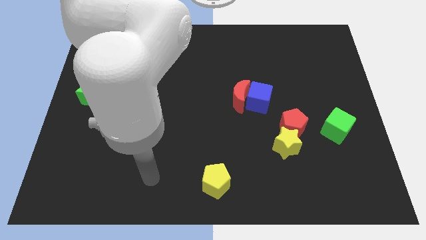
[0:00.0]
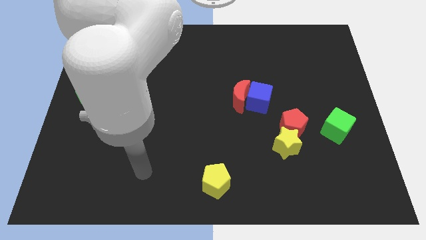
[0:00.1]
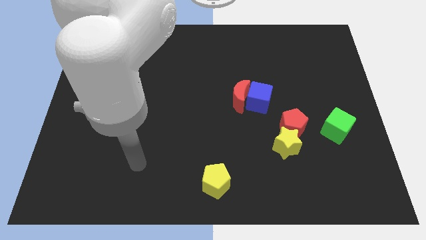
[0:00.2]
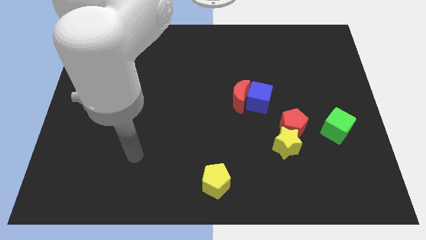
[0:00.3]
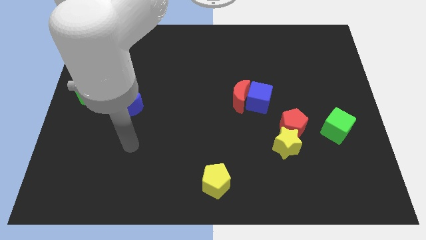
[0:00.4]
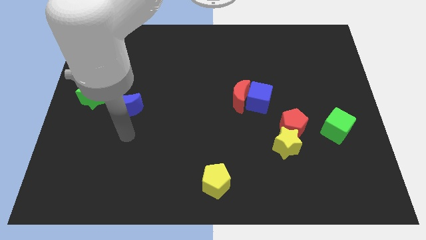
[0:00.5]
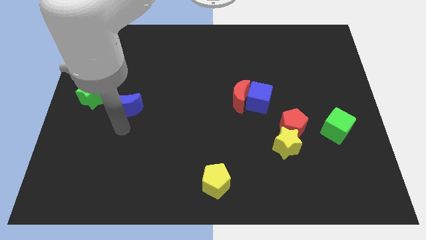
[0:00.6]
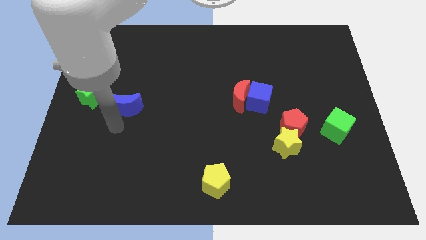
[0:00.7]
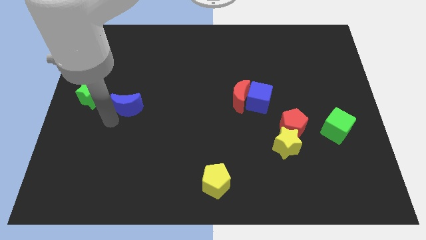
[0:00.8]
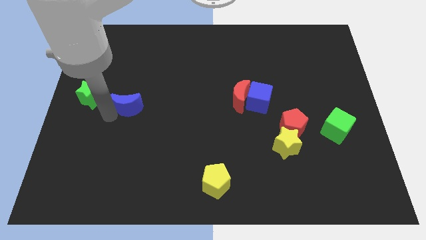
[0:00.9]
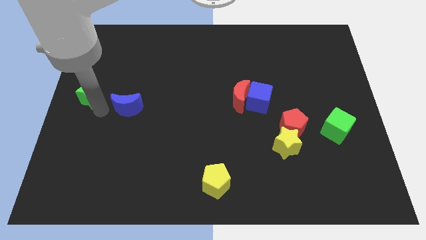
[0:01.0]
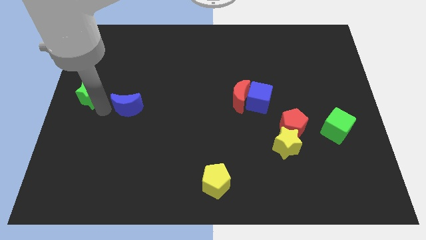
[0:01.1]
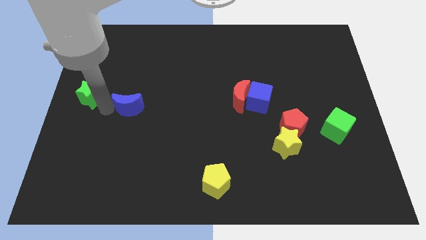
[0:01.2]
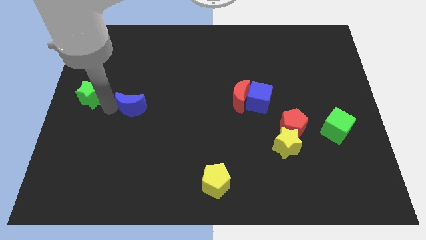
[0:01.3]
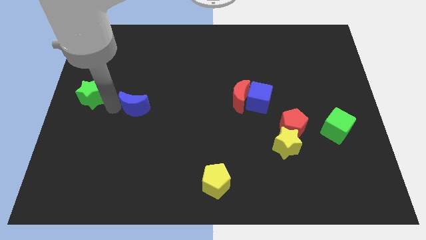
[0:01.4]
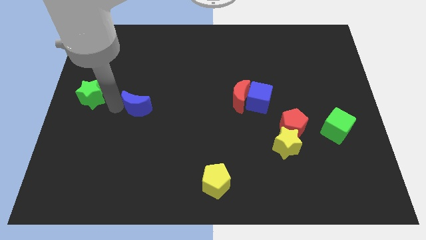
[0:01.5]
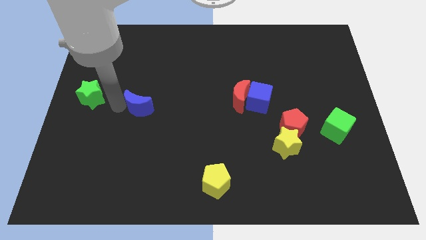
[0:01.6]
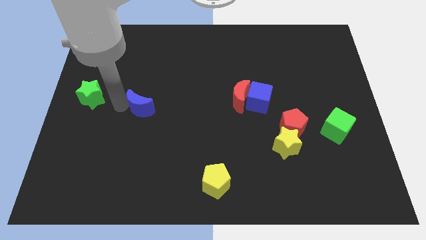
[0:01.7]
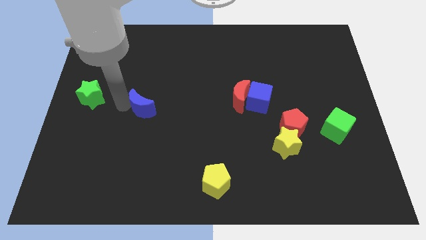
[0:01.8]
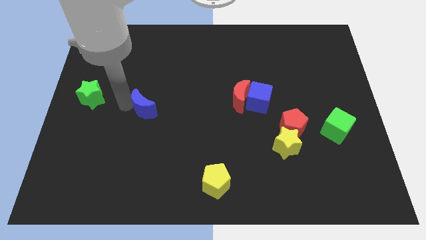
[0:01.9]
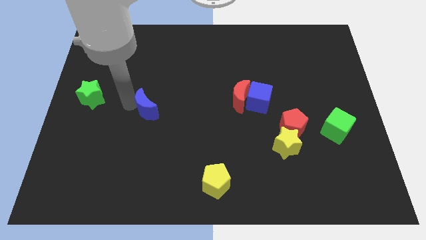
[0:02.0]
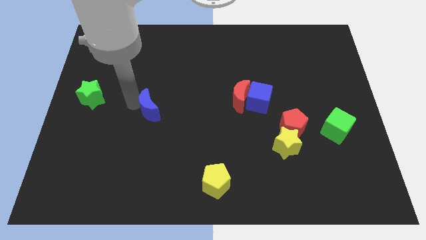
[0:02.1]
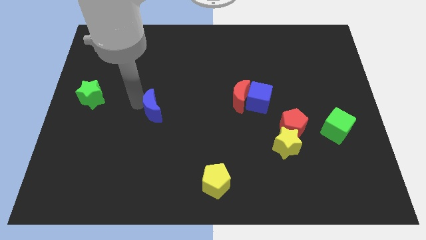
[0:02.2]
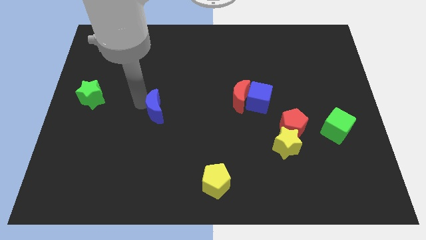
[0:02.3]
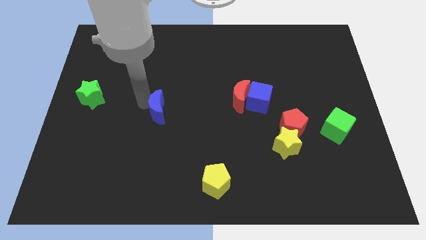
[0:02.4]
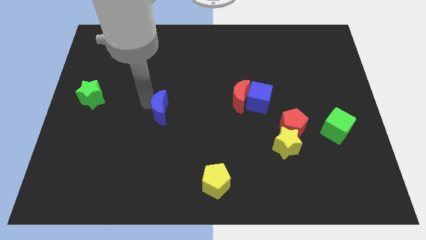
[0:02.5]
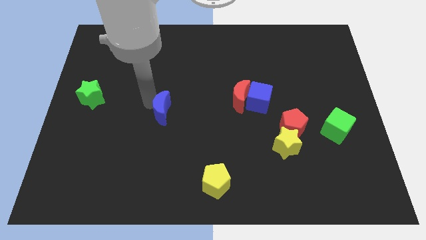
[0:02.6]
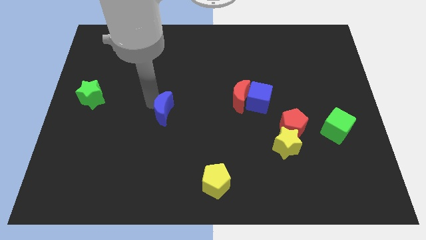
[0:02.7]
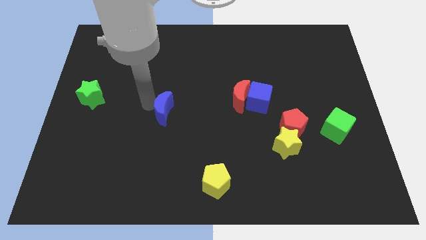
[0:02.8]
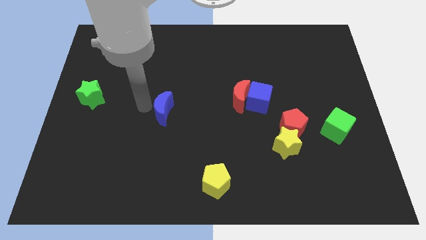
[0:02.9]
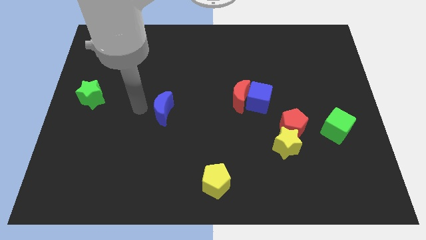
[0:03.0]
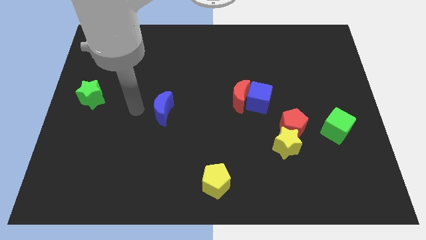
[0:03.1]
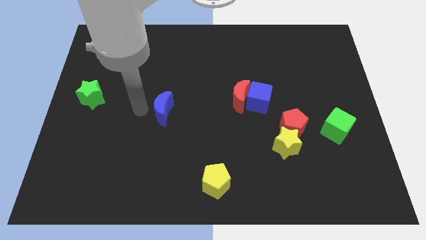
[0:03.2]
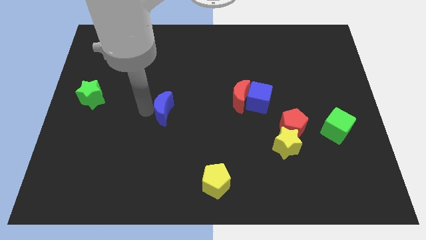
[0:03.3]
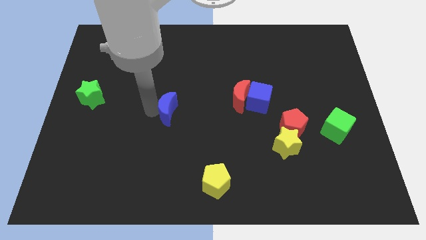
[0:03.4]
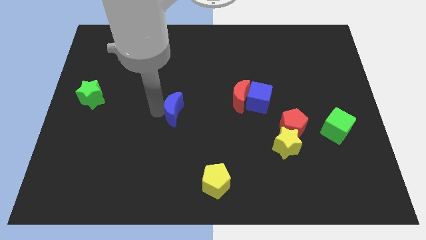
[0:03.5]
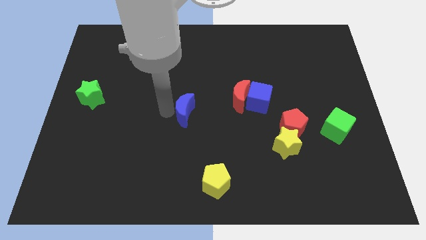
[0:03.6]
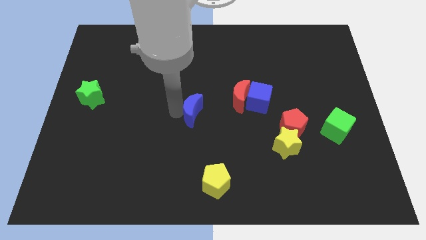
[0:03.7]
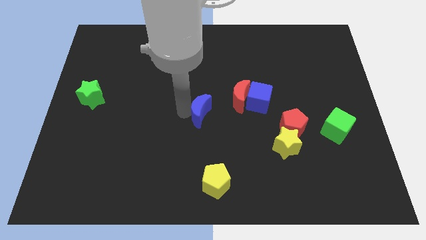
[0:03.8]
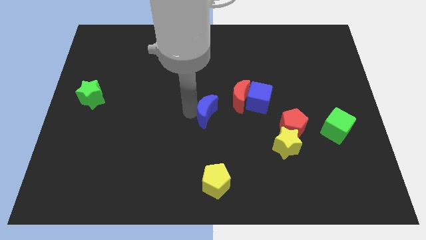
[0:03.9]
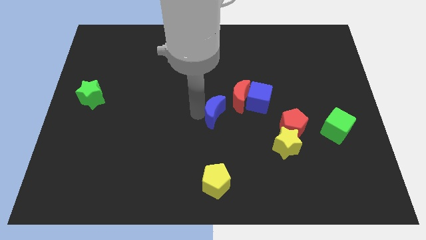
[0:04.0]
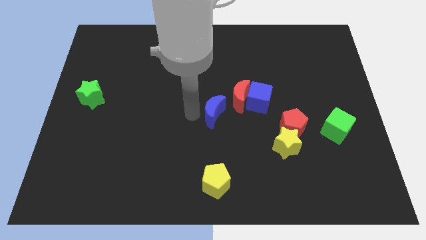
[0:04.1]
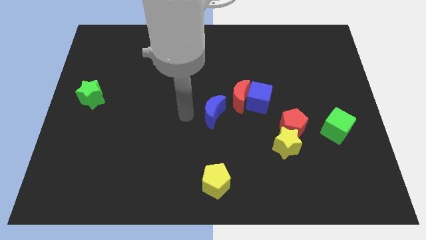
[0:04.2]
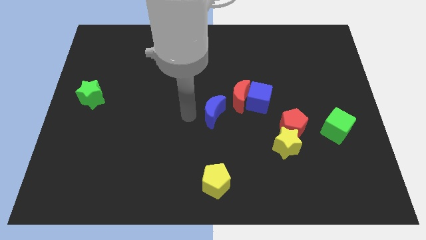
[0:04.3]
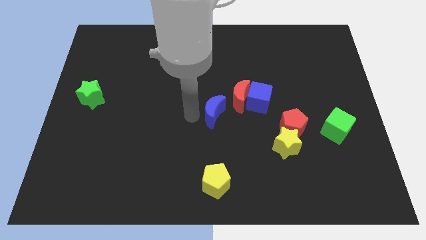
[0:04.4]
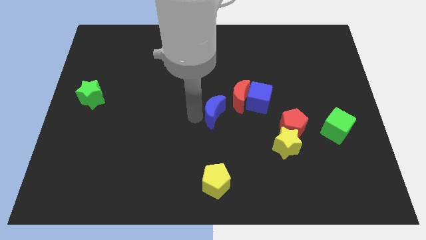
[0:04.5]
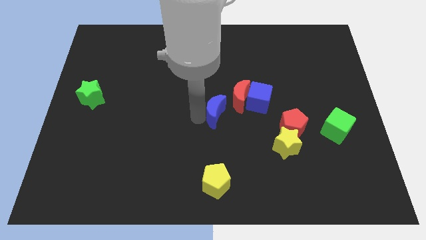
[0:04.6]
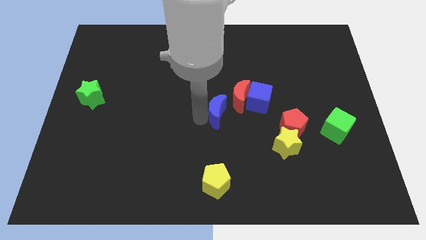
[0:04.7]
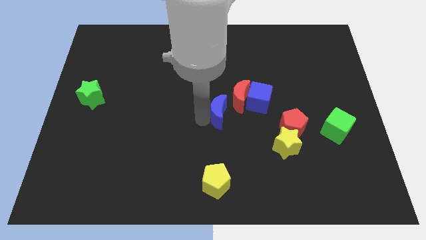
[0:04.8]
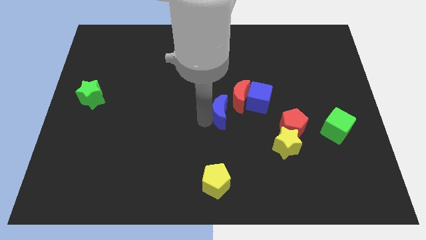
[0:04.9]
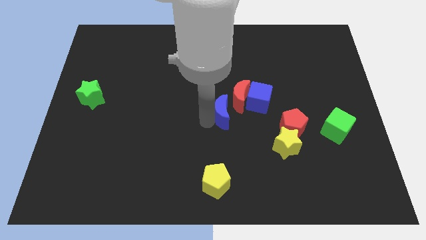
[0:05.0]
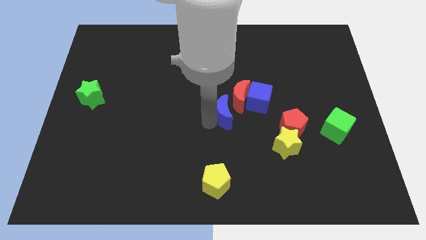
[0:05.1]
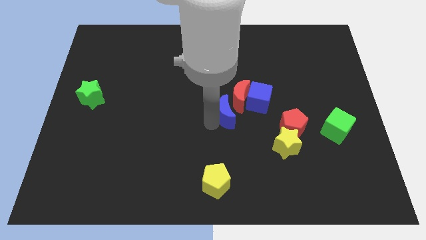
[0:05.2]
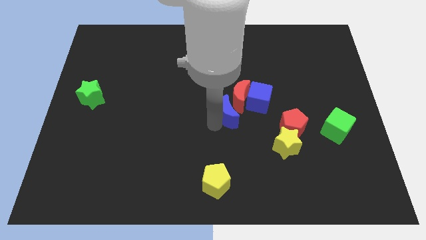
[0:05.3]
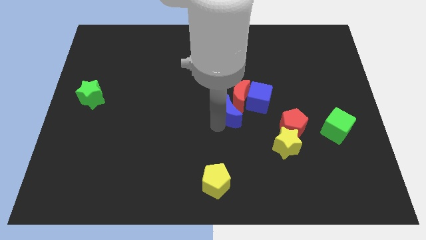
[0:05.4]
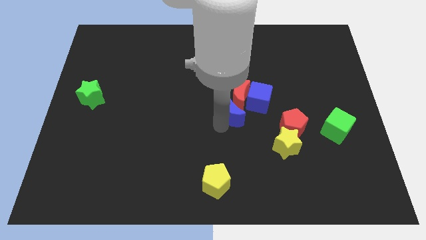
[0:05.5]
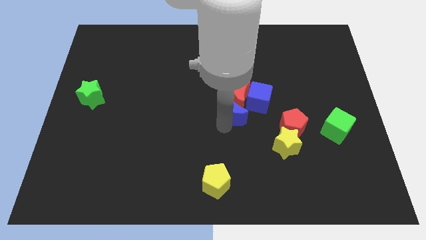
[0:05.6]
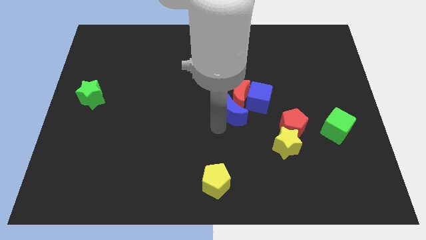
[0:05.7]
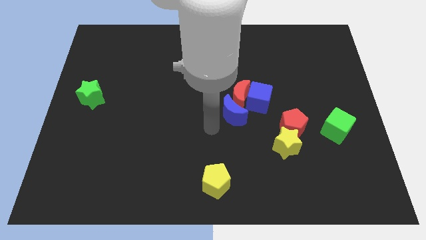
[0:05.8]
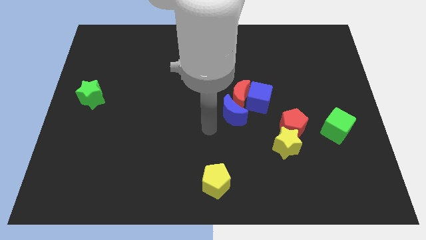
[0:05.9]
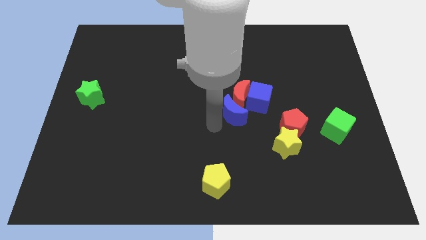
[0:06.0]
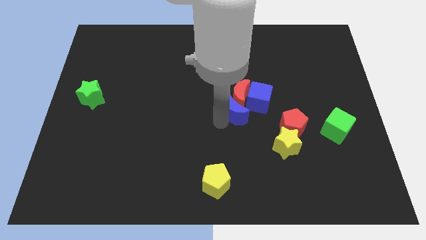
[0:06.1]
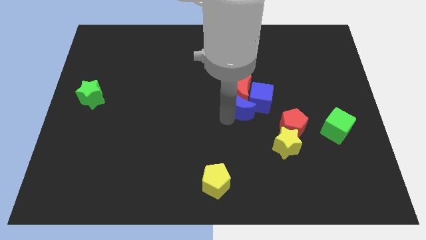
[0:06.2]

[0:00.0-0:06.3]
move the blue moon close to the blue cube

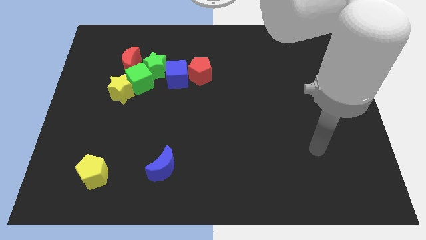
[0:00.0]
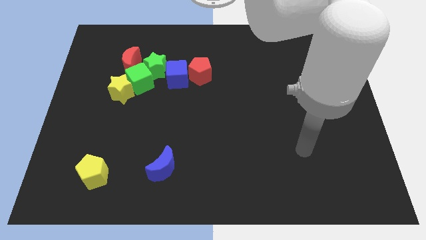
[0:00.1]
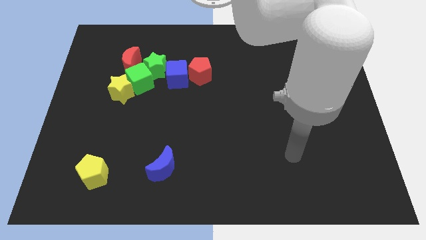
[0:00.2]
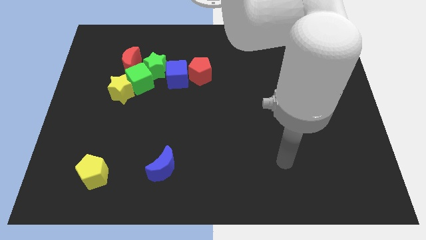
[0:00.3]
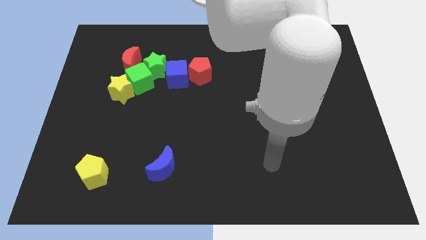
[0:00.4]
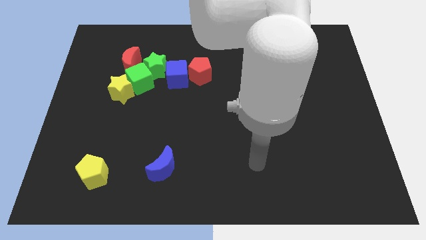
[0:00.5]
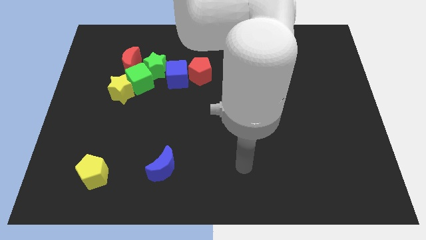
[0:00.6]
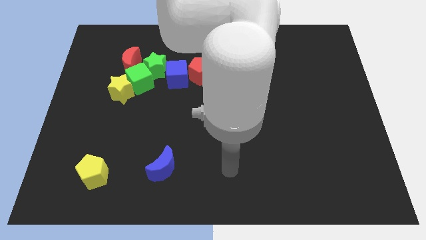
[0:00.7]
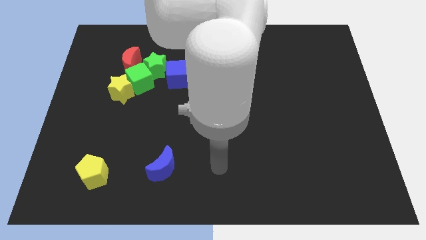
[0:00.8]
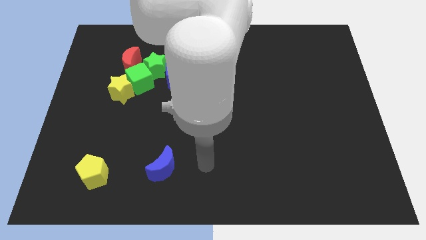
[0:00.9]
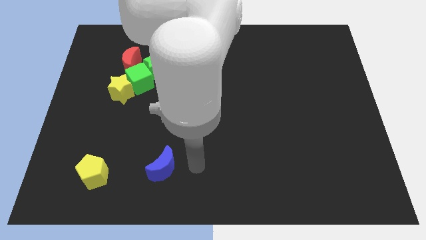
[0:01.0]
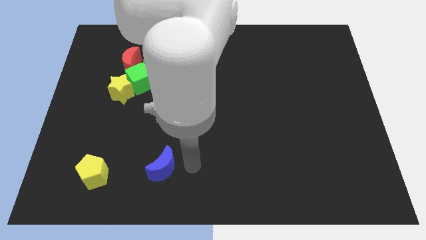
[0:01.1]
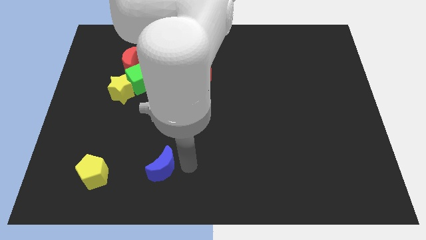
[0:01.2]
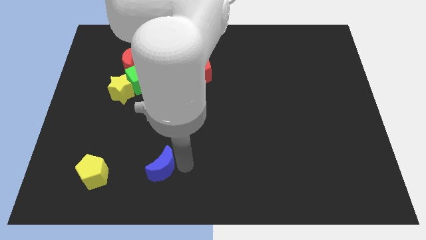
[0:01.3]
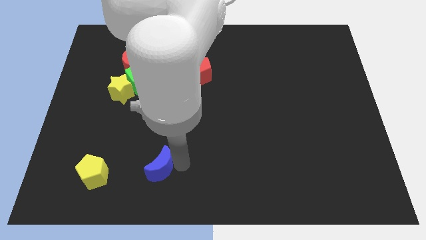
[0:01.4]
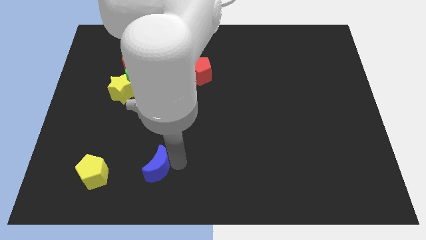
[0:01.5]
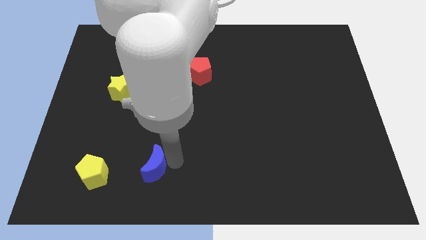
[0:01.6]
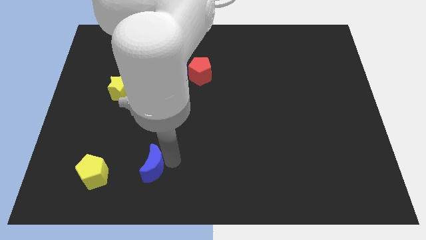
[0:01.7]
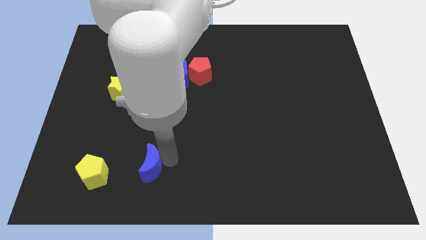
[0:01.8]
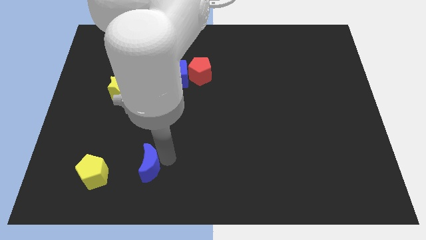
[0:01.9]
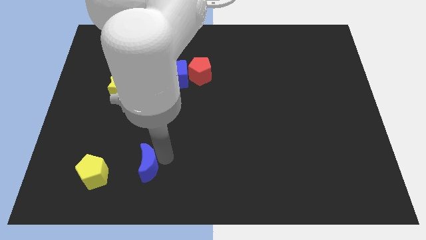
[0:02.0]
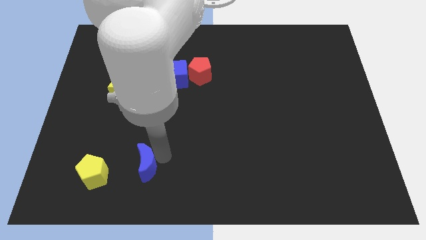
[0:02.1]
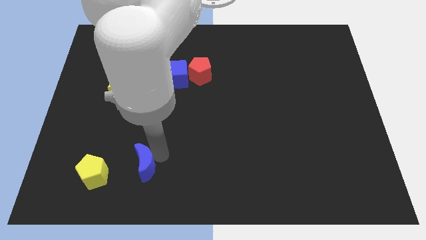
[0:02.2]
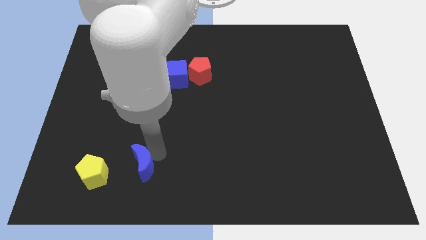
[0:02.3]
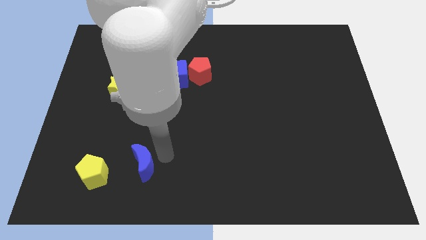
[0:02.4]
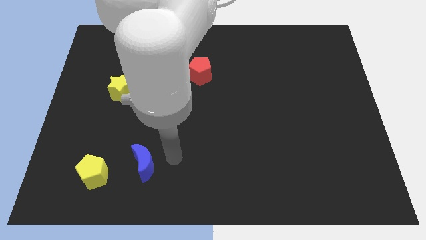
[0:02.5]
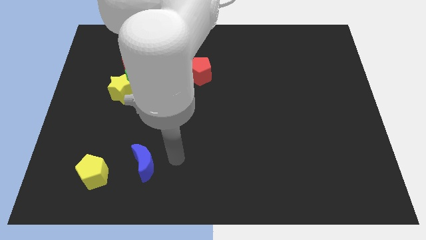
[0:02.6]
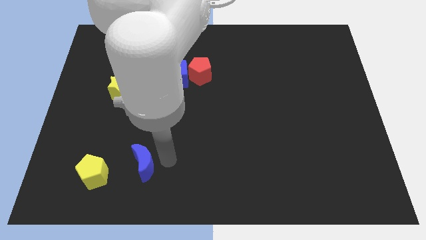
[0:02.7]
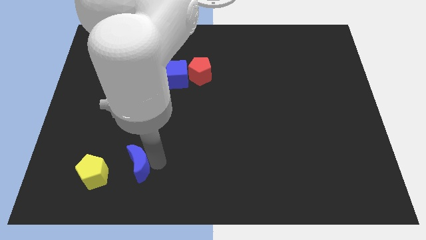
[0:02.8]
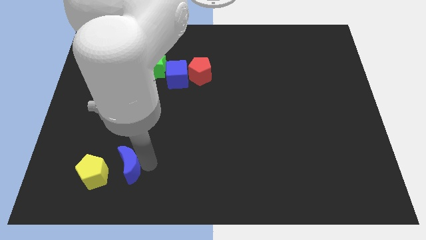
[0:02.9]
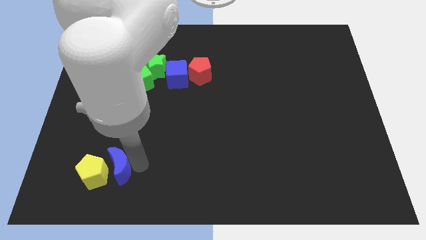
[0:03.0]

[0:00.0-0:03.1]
push the blue moon towards the yellow pentagon
